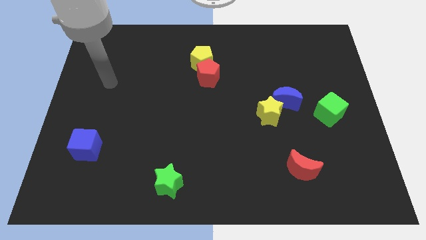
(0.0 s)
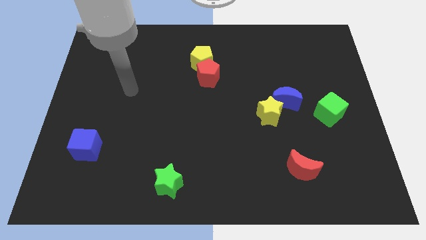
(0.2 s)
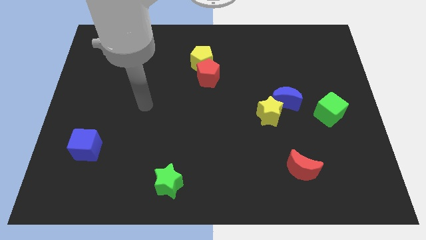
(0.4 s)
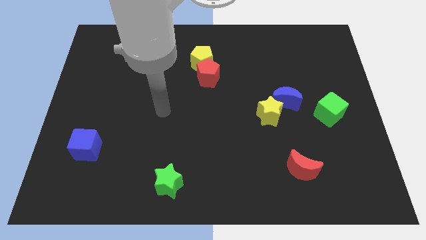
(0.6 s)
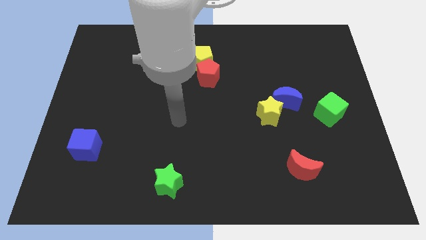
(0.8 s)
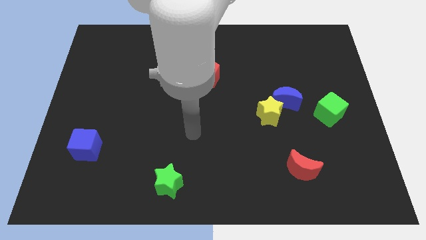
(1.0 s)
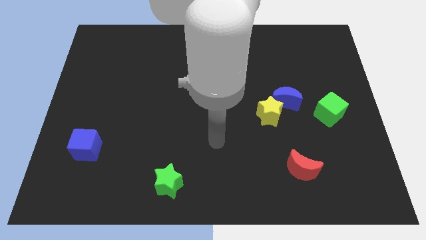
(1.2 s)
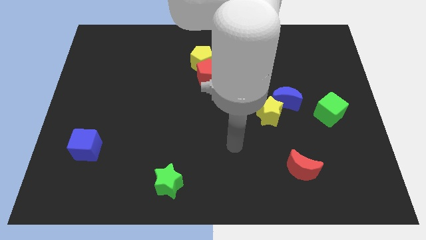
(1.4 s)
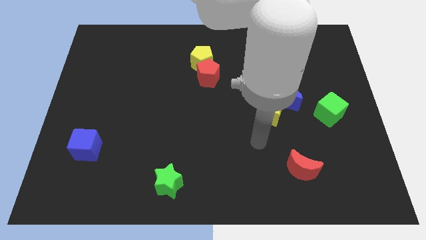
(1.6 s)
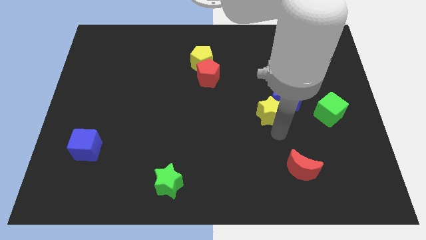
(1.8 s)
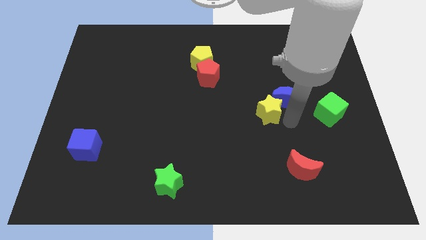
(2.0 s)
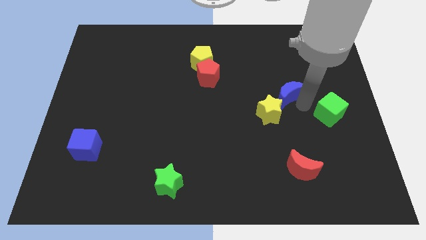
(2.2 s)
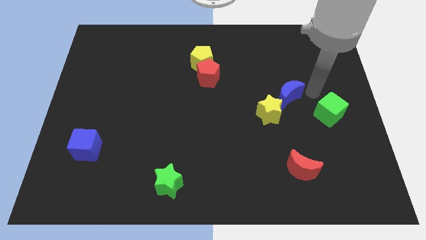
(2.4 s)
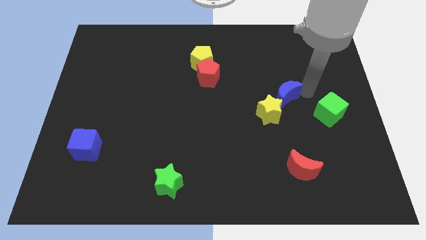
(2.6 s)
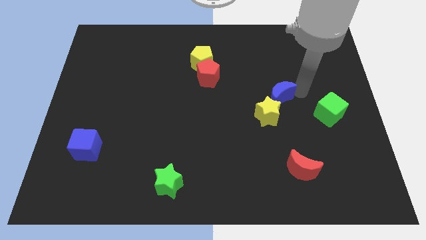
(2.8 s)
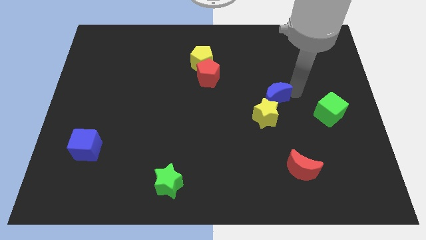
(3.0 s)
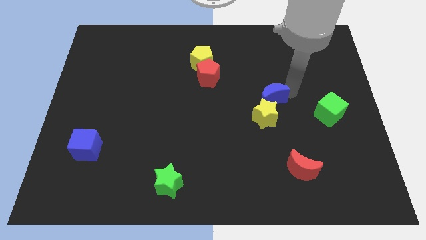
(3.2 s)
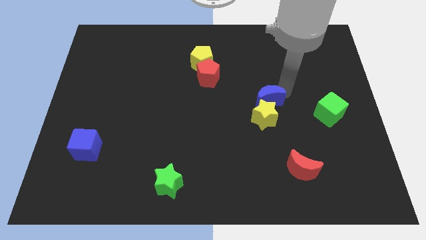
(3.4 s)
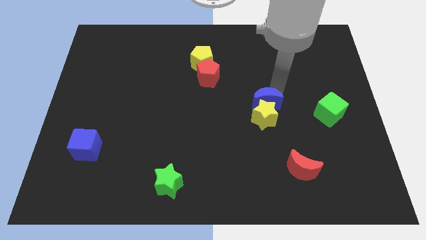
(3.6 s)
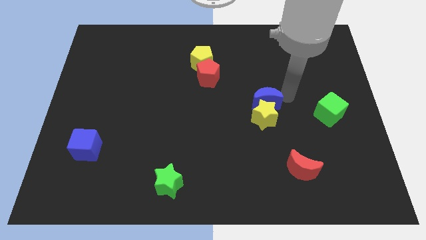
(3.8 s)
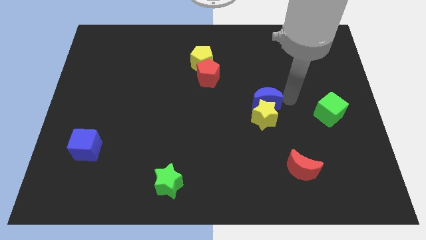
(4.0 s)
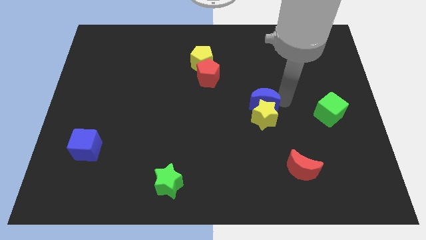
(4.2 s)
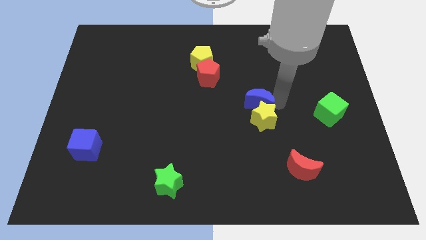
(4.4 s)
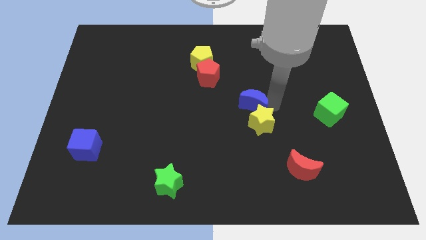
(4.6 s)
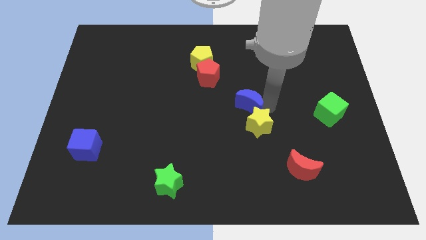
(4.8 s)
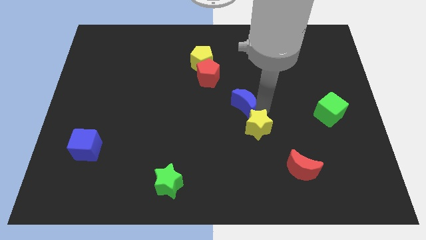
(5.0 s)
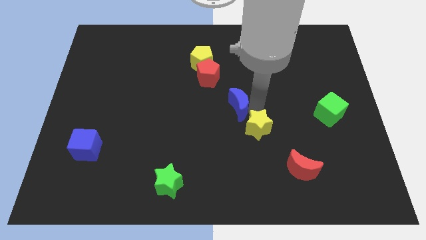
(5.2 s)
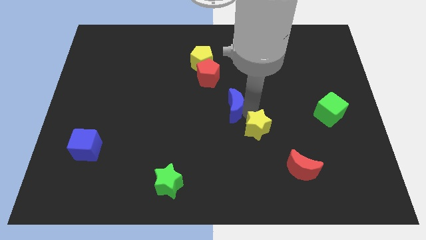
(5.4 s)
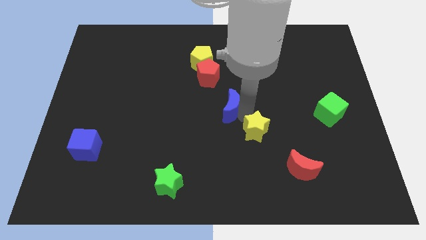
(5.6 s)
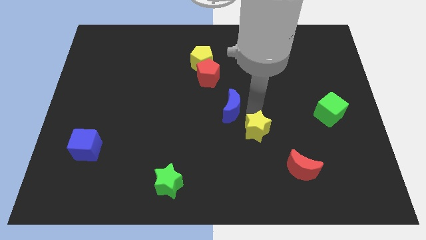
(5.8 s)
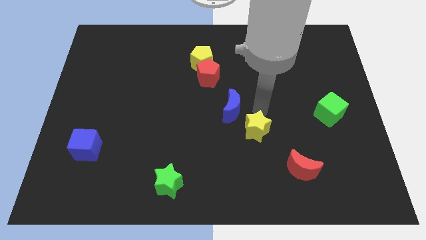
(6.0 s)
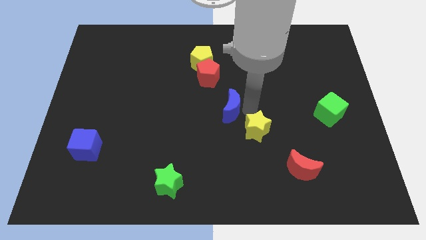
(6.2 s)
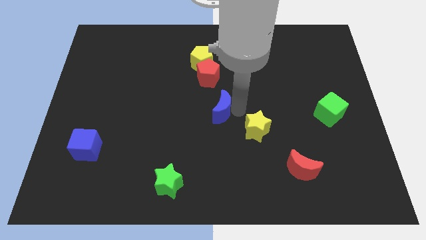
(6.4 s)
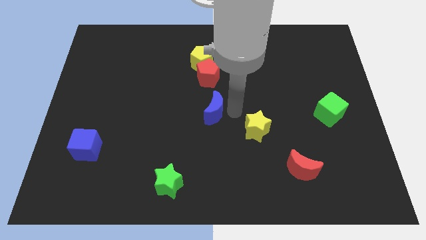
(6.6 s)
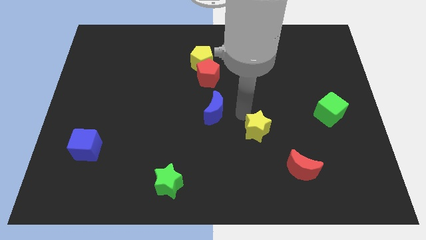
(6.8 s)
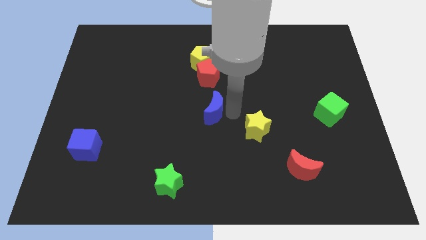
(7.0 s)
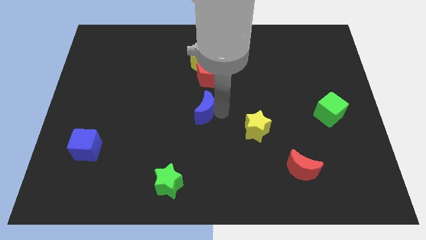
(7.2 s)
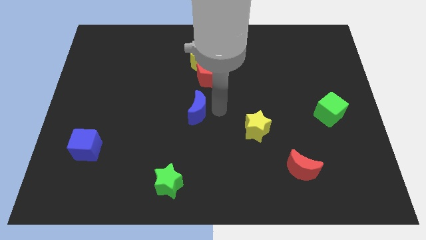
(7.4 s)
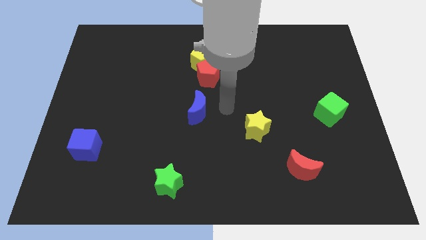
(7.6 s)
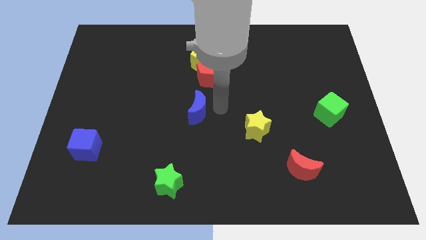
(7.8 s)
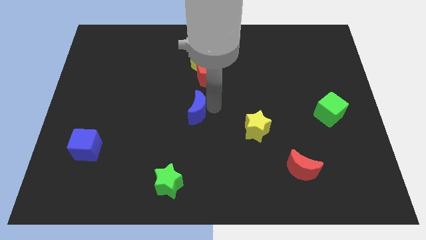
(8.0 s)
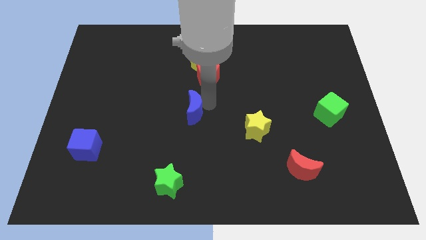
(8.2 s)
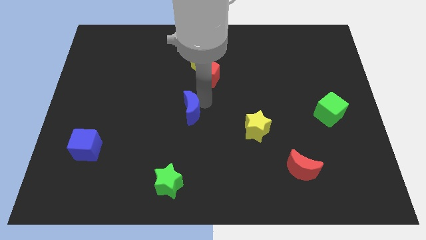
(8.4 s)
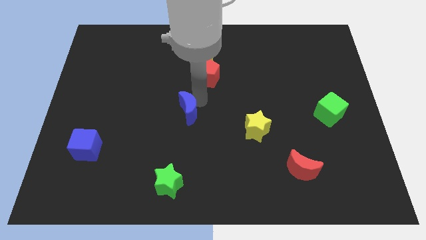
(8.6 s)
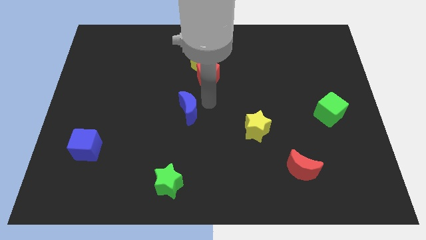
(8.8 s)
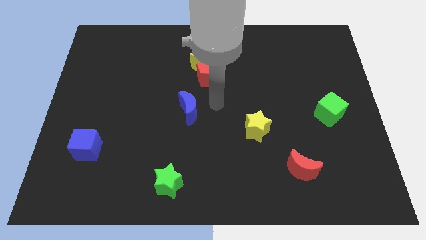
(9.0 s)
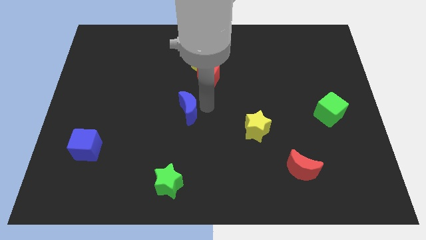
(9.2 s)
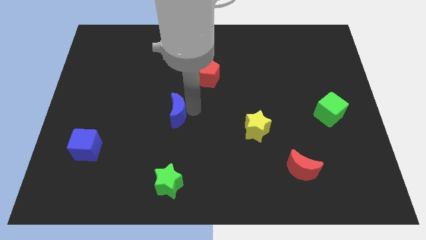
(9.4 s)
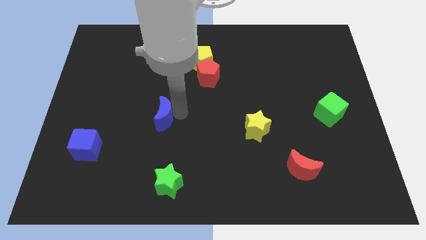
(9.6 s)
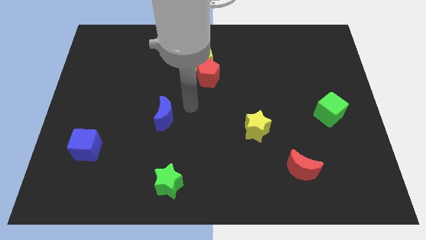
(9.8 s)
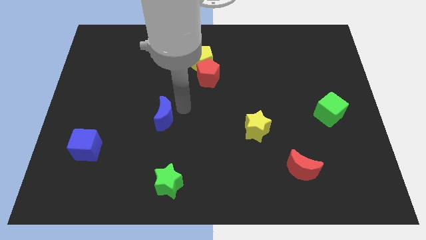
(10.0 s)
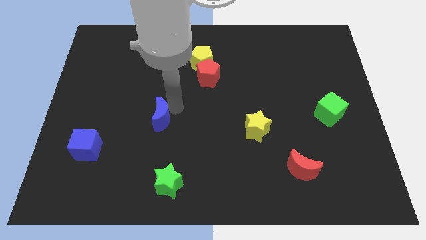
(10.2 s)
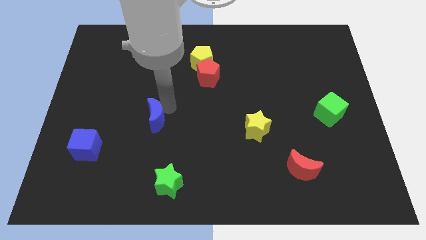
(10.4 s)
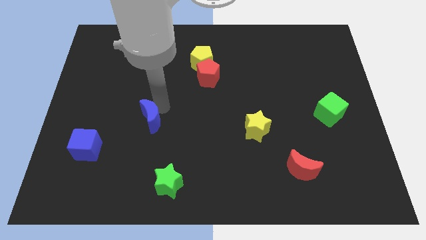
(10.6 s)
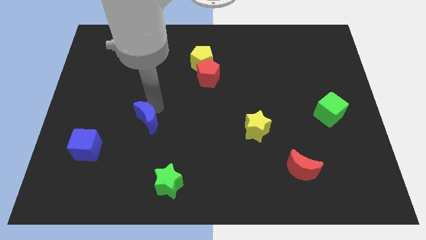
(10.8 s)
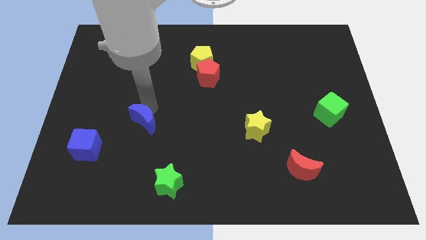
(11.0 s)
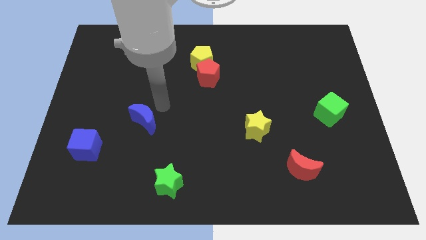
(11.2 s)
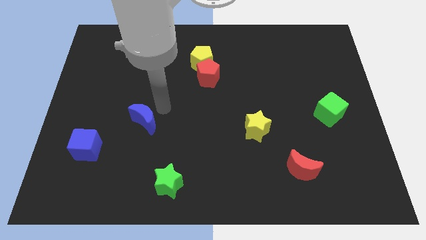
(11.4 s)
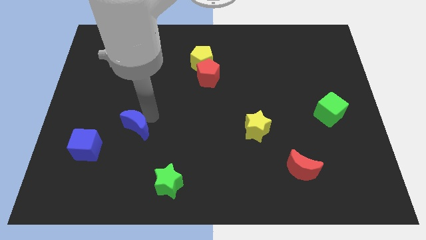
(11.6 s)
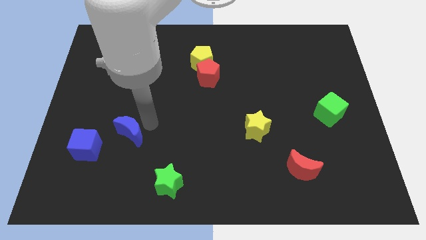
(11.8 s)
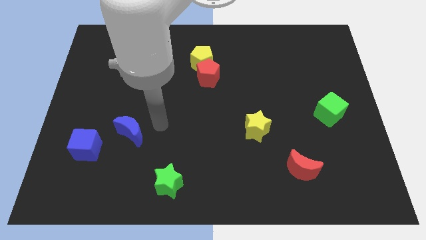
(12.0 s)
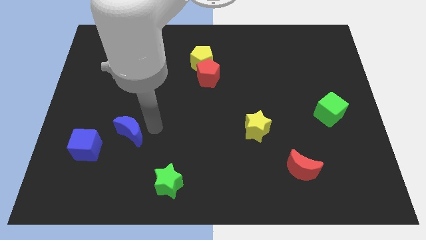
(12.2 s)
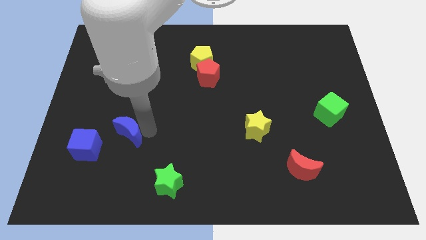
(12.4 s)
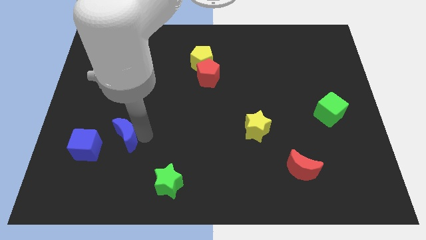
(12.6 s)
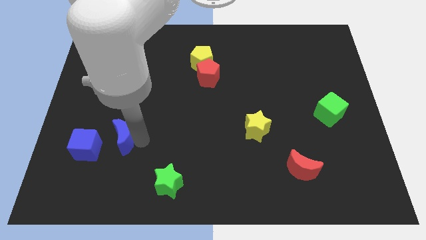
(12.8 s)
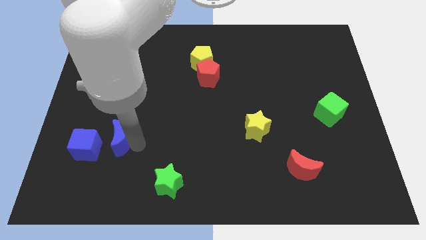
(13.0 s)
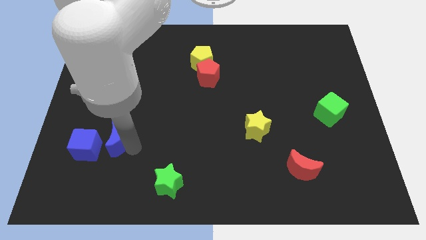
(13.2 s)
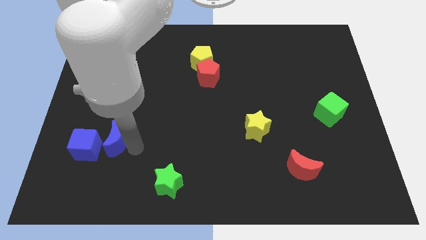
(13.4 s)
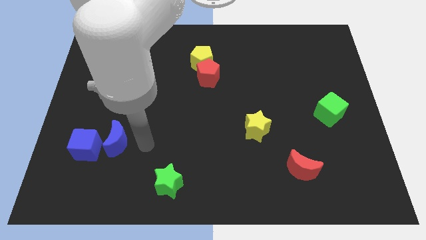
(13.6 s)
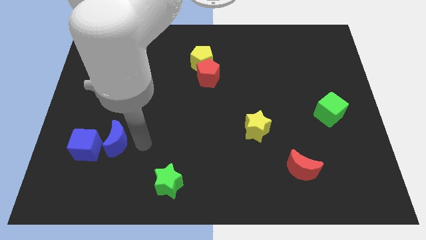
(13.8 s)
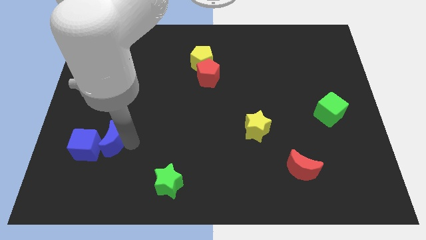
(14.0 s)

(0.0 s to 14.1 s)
move the blue moon to the blue cube
